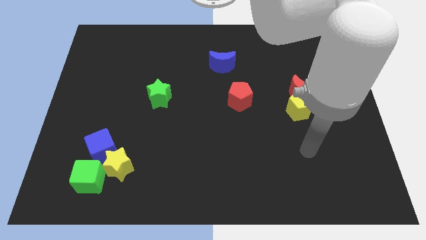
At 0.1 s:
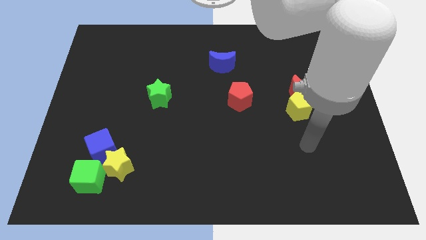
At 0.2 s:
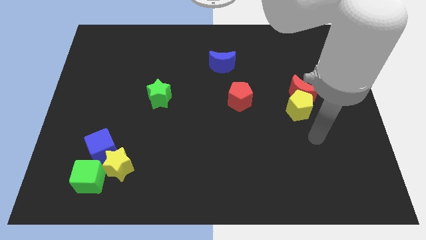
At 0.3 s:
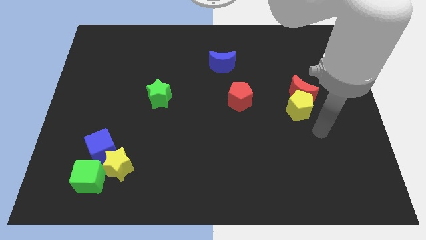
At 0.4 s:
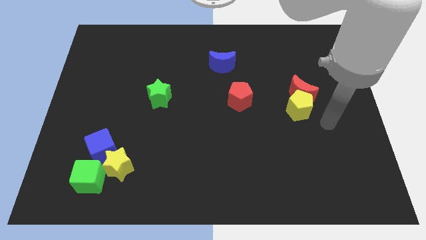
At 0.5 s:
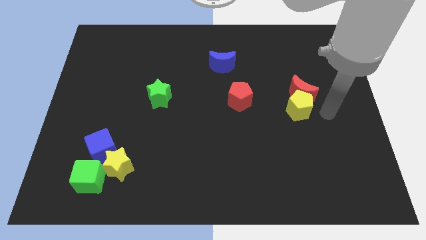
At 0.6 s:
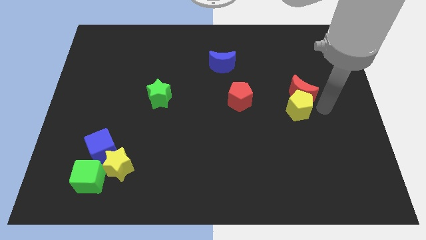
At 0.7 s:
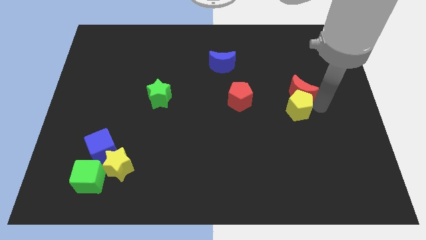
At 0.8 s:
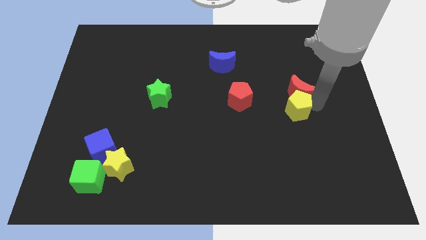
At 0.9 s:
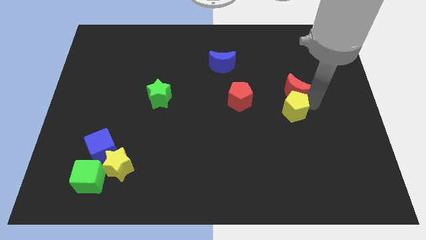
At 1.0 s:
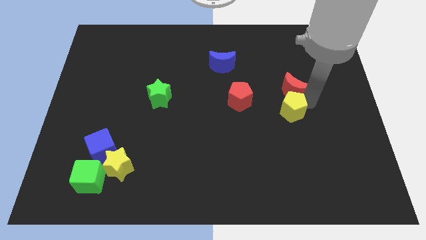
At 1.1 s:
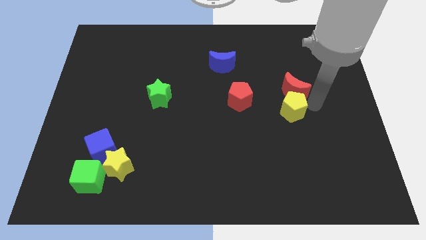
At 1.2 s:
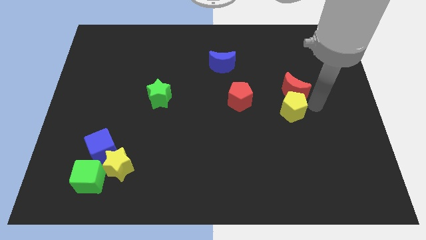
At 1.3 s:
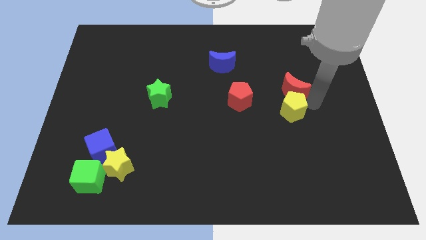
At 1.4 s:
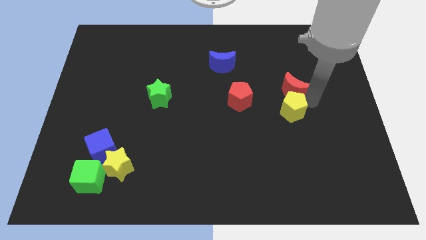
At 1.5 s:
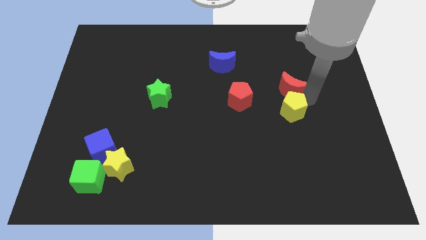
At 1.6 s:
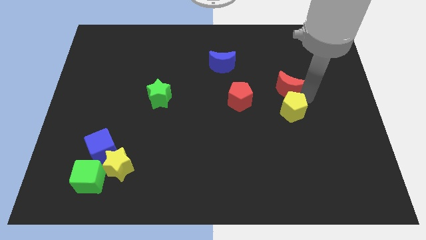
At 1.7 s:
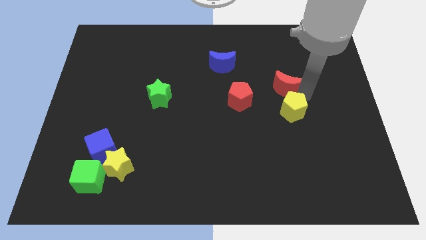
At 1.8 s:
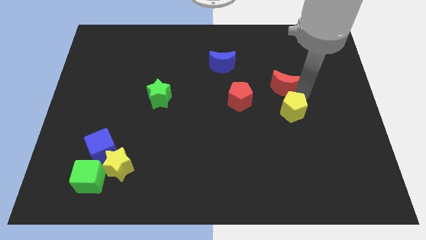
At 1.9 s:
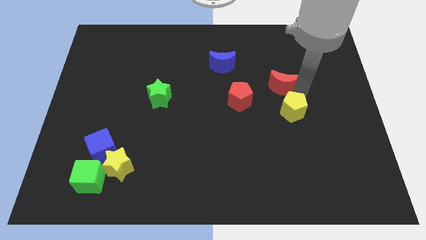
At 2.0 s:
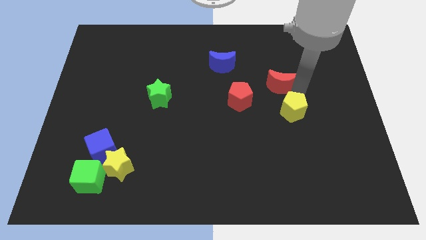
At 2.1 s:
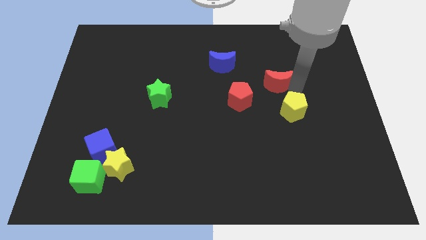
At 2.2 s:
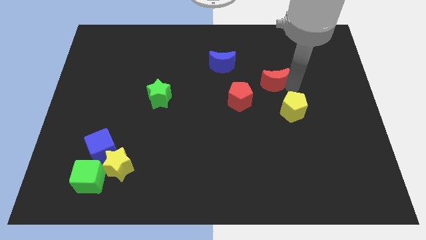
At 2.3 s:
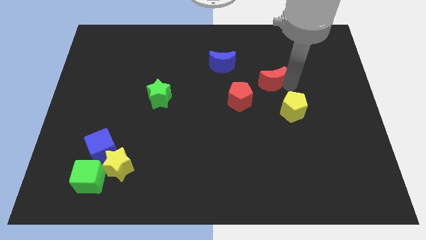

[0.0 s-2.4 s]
push the red moon a little diagonally up and left

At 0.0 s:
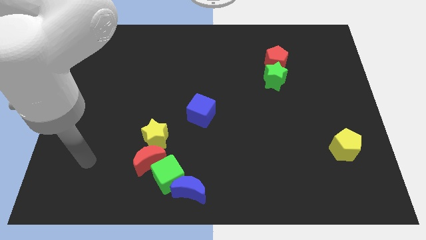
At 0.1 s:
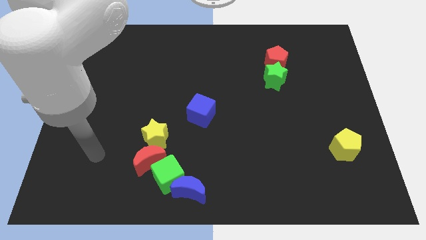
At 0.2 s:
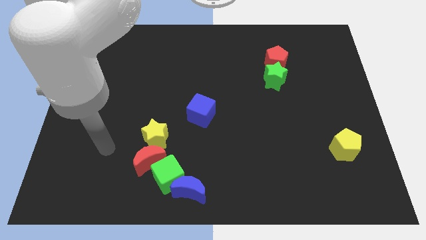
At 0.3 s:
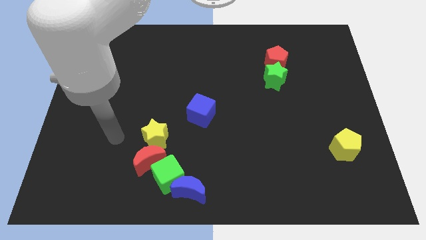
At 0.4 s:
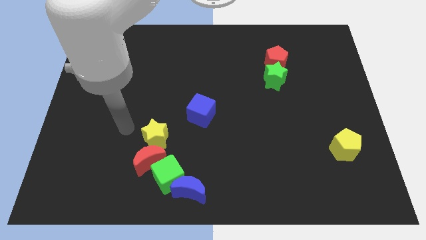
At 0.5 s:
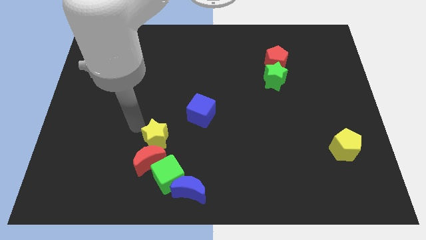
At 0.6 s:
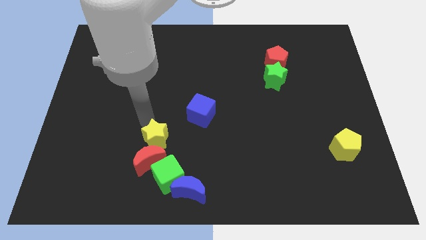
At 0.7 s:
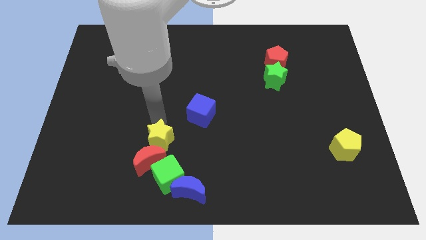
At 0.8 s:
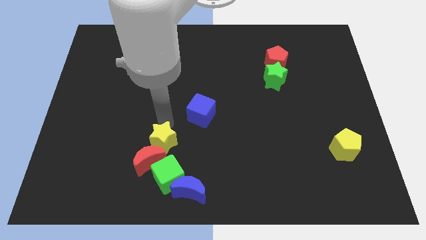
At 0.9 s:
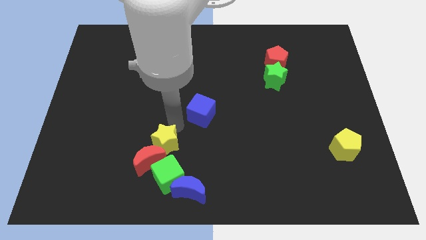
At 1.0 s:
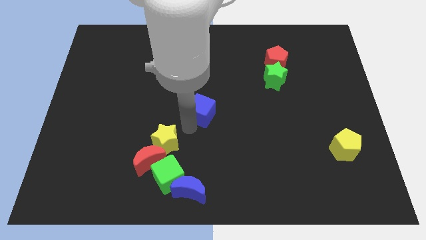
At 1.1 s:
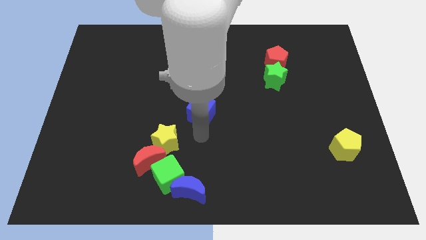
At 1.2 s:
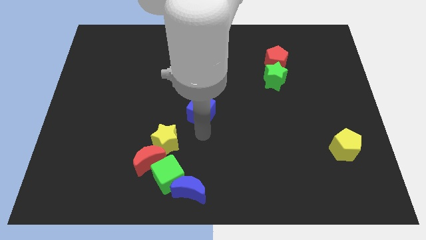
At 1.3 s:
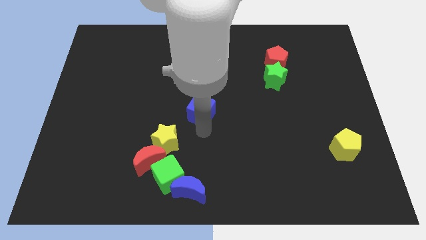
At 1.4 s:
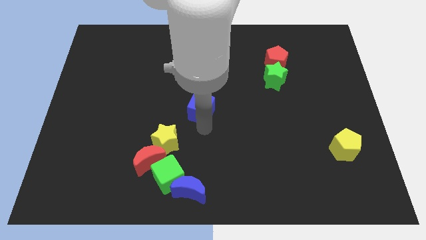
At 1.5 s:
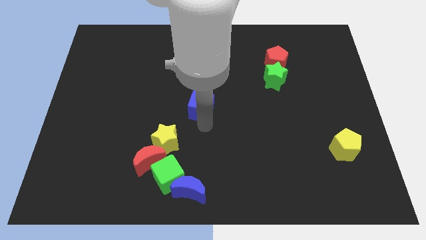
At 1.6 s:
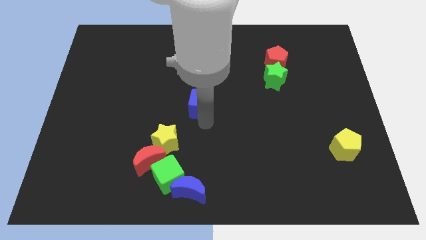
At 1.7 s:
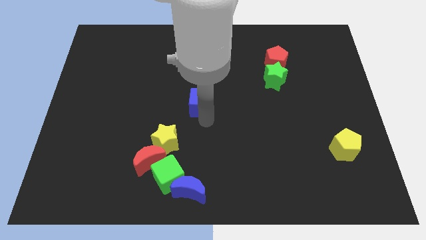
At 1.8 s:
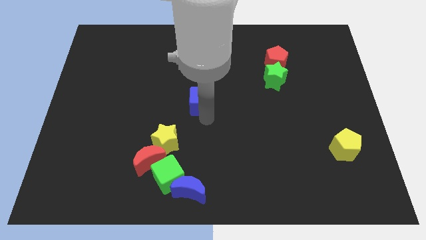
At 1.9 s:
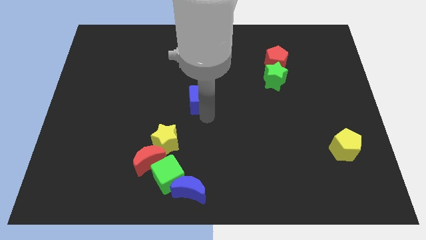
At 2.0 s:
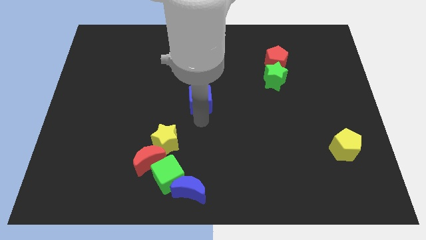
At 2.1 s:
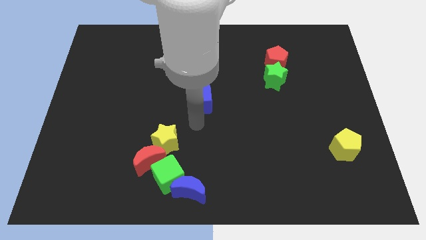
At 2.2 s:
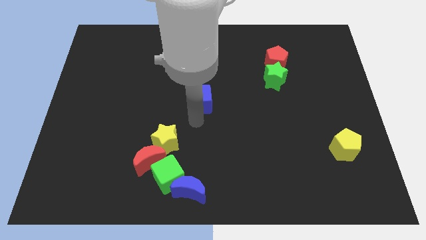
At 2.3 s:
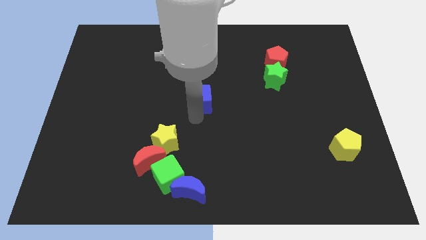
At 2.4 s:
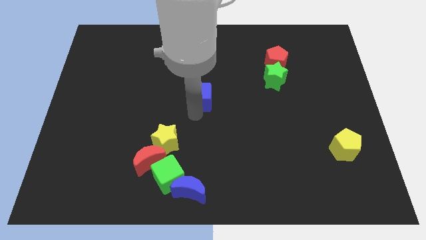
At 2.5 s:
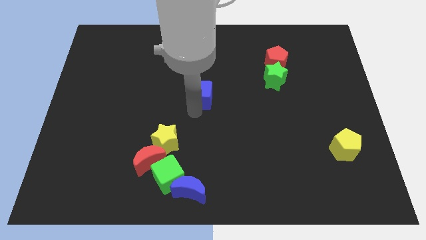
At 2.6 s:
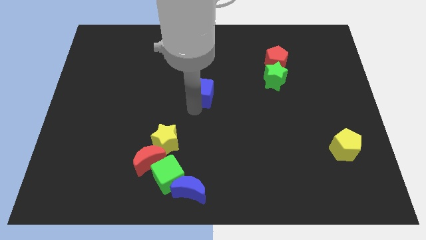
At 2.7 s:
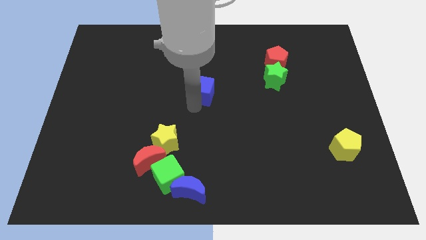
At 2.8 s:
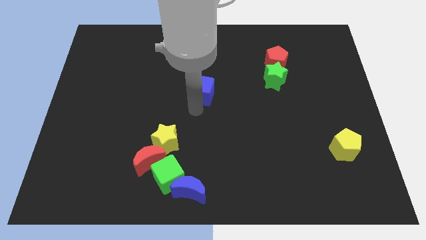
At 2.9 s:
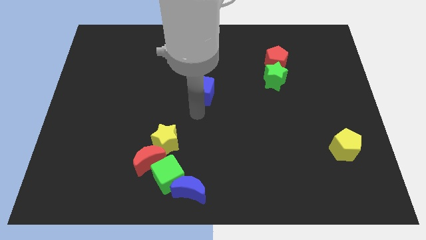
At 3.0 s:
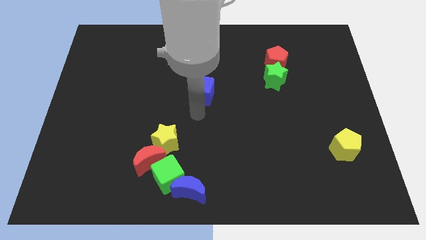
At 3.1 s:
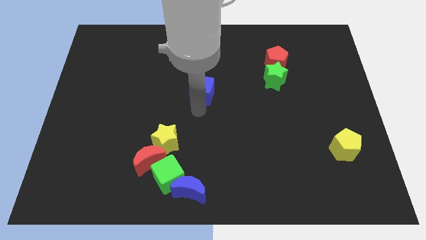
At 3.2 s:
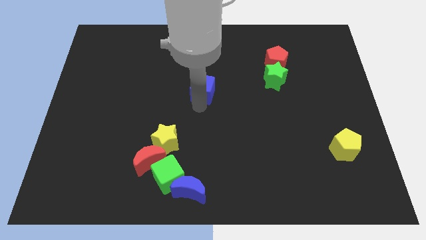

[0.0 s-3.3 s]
move the blue cube upwards a little bit

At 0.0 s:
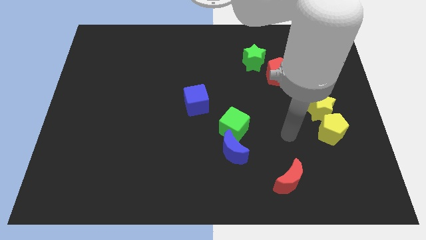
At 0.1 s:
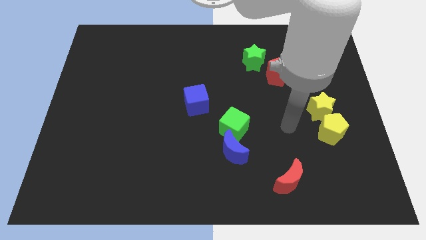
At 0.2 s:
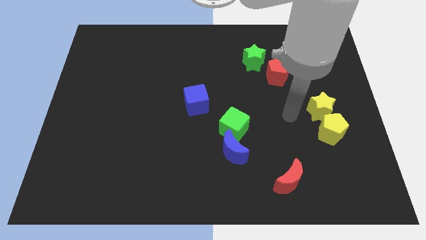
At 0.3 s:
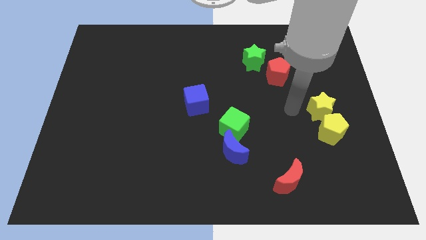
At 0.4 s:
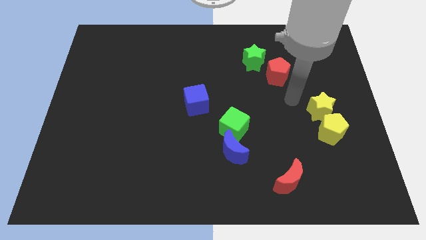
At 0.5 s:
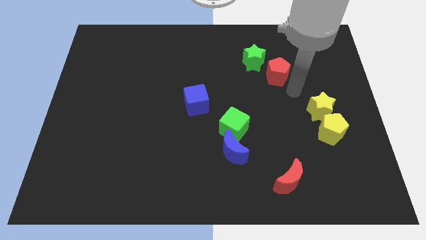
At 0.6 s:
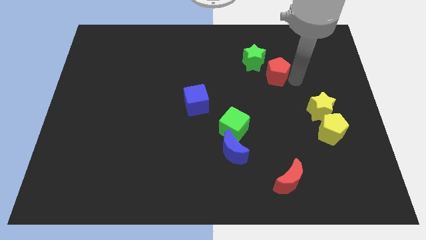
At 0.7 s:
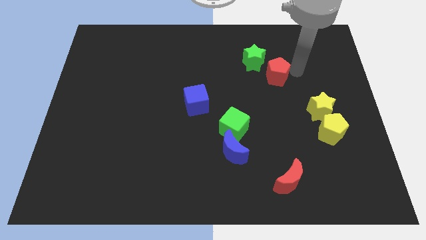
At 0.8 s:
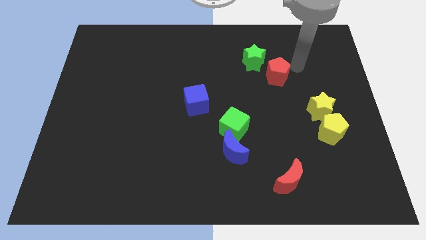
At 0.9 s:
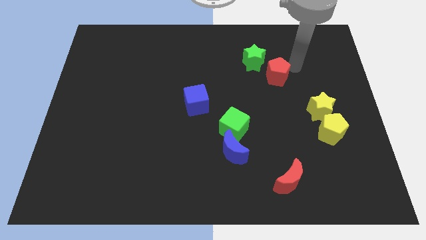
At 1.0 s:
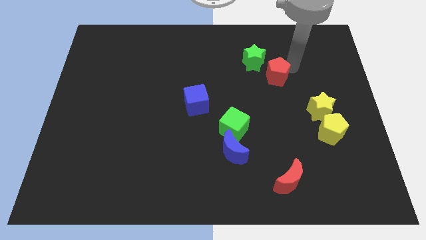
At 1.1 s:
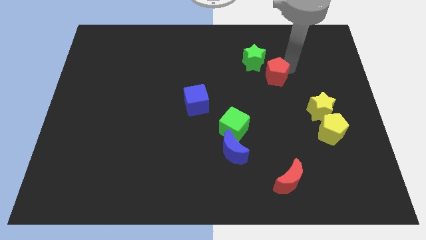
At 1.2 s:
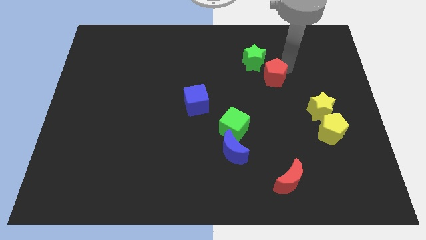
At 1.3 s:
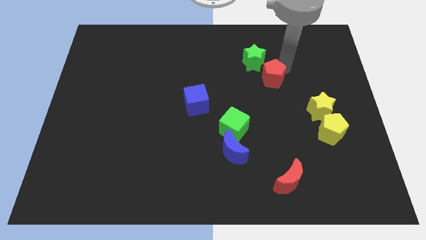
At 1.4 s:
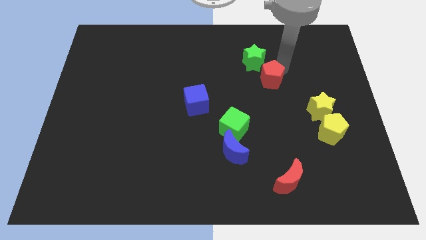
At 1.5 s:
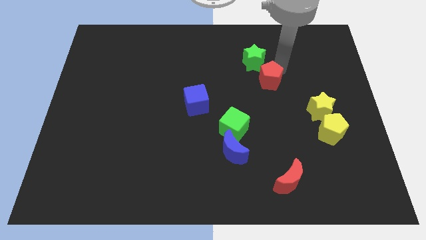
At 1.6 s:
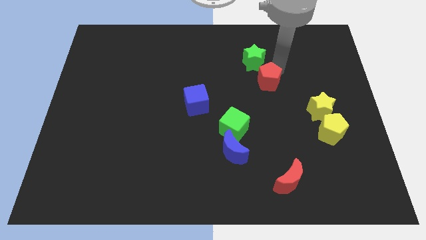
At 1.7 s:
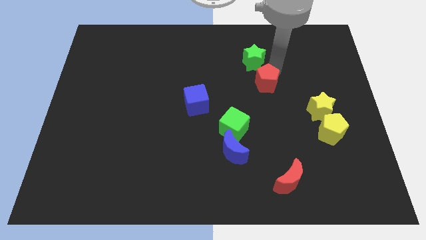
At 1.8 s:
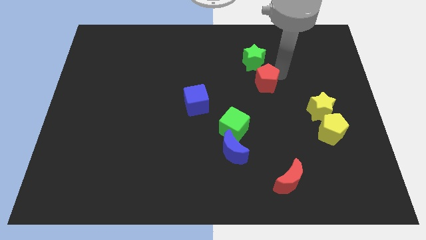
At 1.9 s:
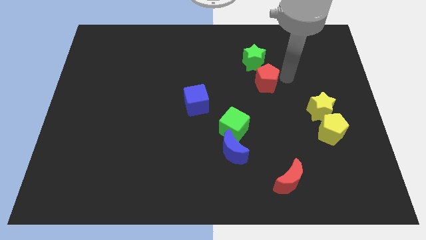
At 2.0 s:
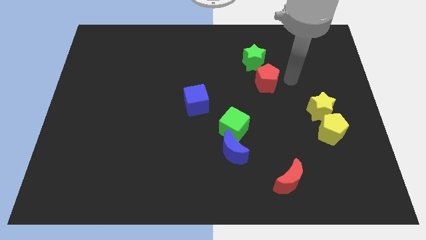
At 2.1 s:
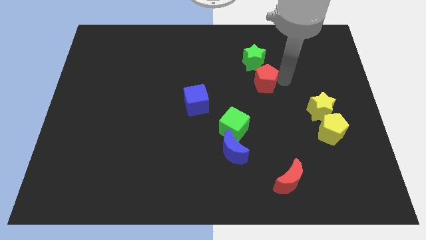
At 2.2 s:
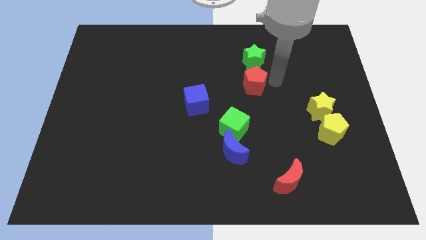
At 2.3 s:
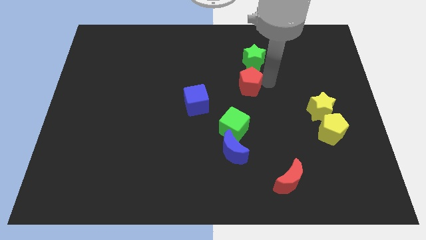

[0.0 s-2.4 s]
slightly push the red pentagon to the left
